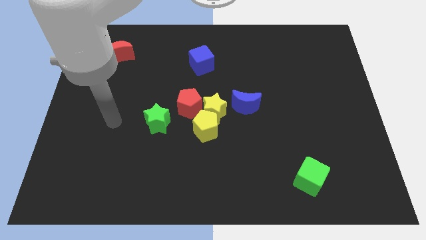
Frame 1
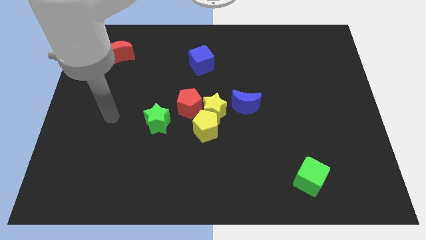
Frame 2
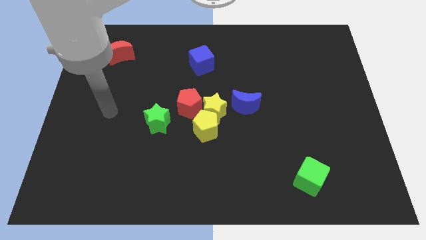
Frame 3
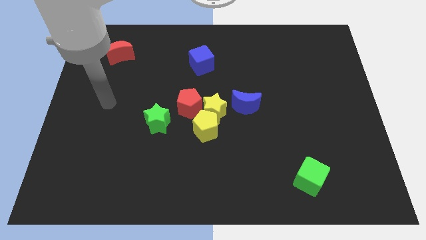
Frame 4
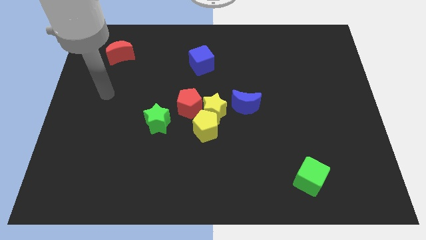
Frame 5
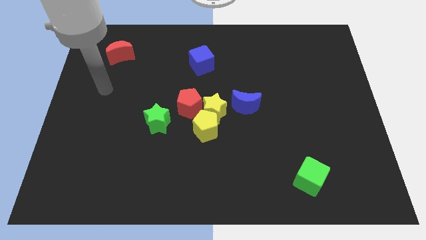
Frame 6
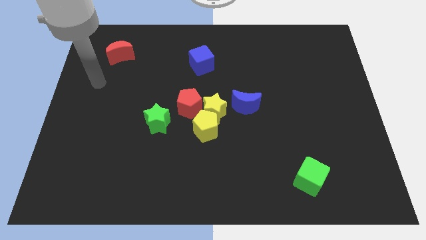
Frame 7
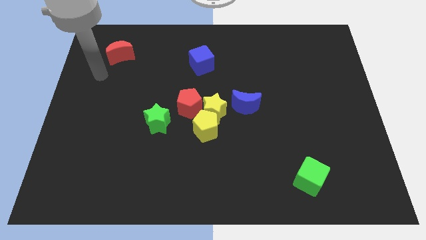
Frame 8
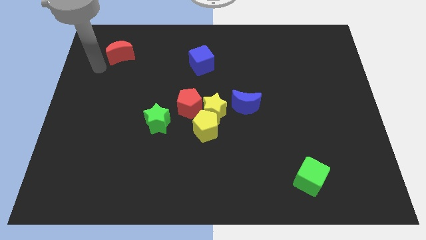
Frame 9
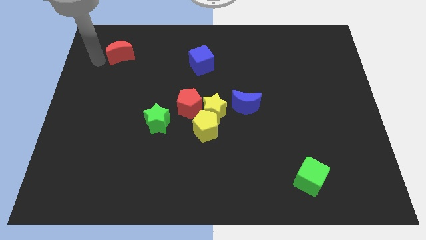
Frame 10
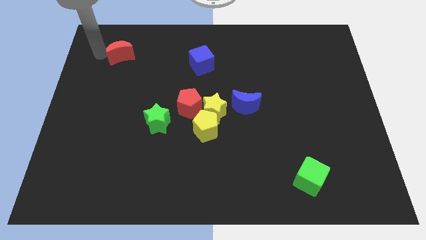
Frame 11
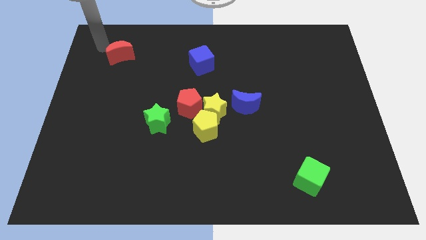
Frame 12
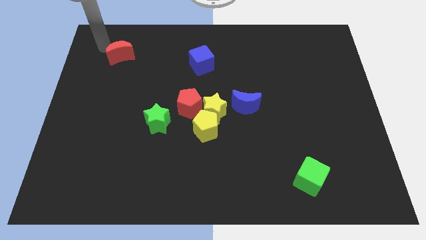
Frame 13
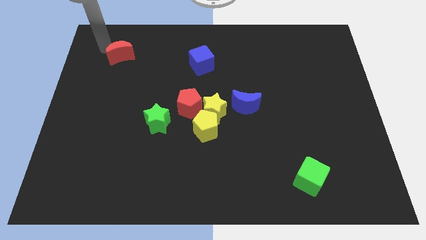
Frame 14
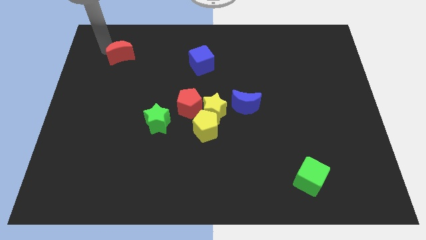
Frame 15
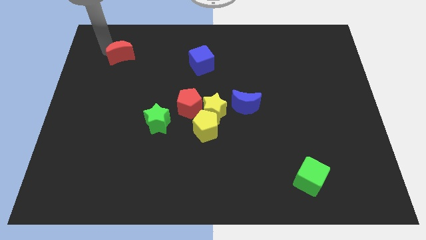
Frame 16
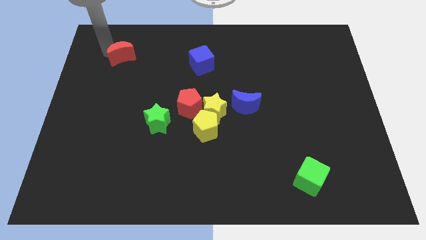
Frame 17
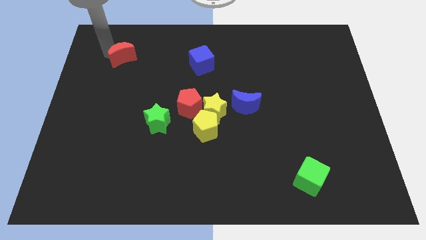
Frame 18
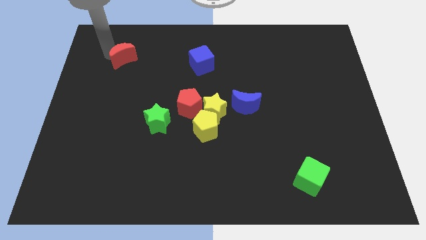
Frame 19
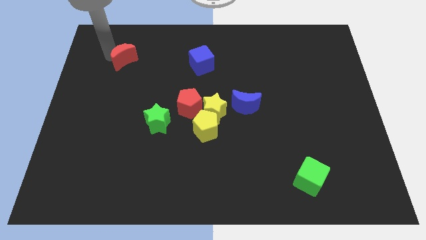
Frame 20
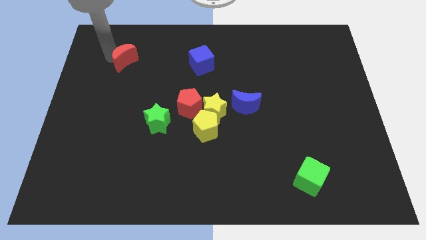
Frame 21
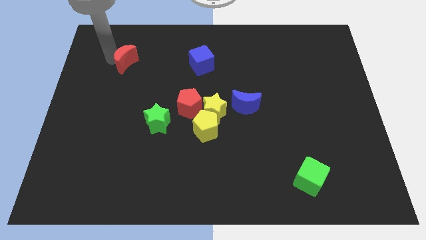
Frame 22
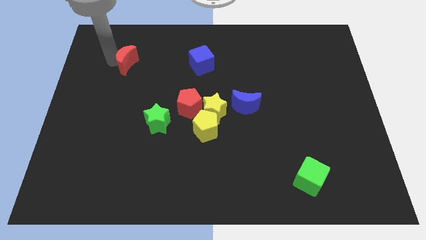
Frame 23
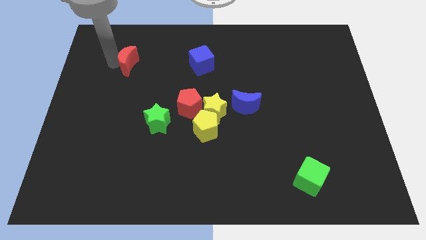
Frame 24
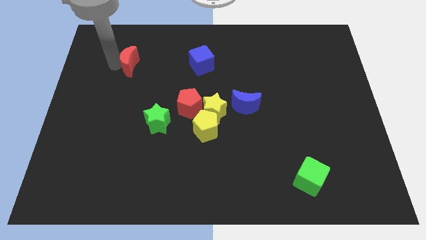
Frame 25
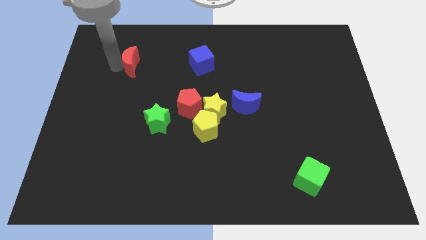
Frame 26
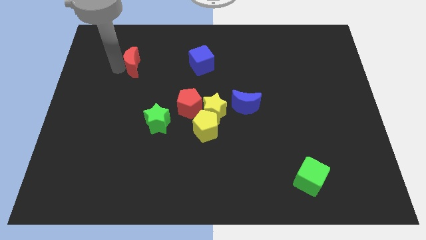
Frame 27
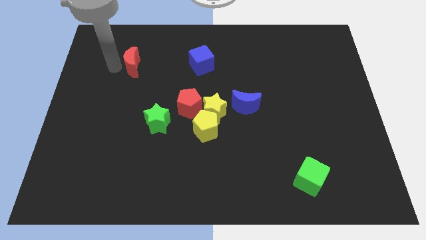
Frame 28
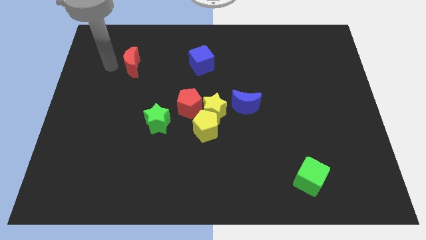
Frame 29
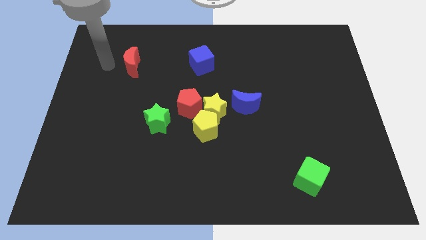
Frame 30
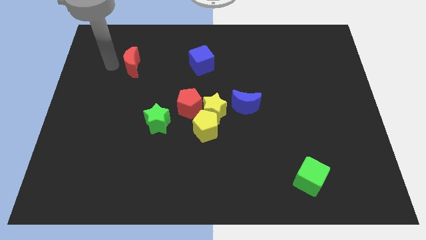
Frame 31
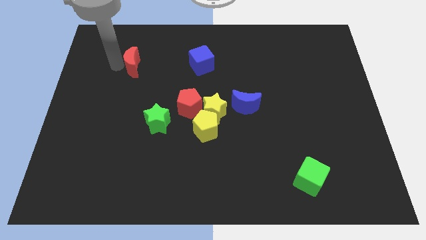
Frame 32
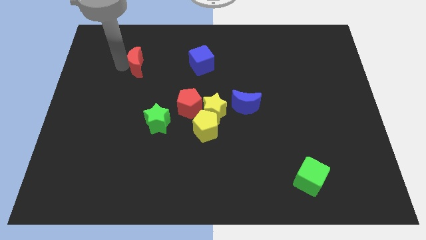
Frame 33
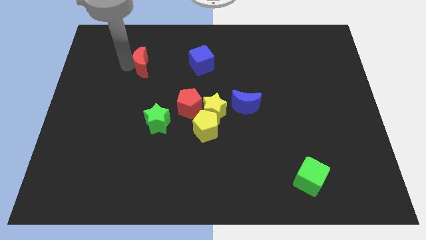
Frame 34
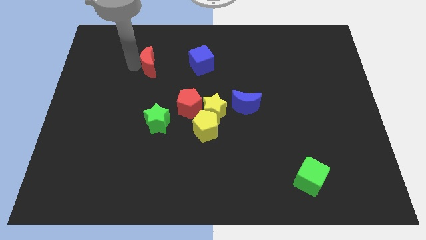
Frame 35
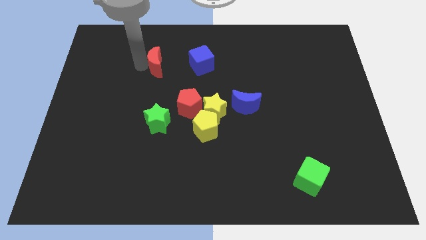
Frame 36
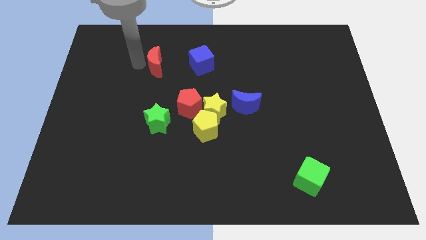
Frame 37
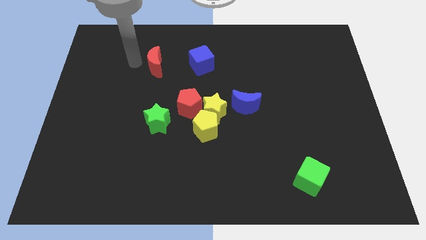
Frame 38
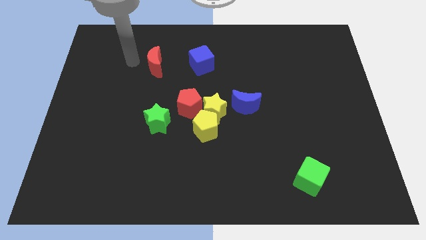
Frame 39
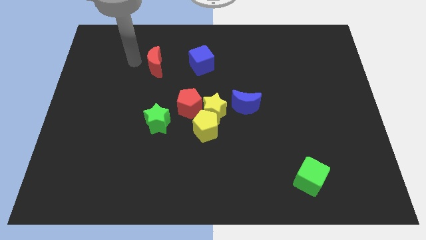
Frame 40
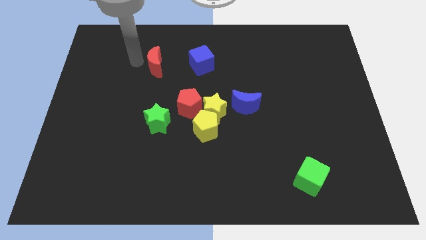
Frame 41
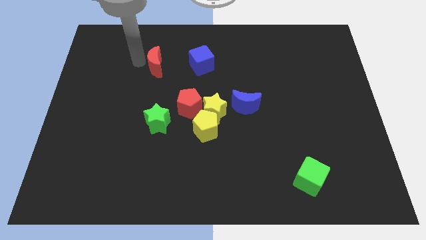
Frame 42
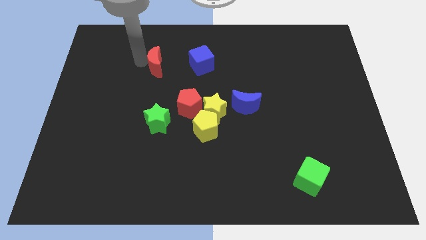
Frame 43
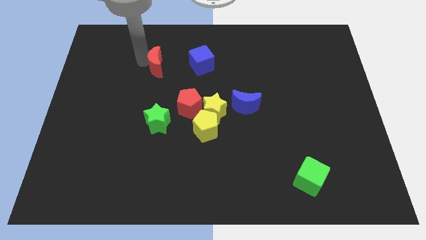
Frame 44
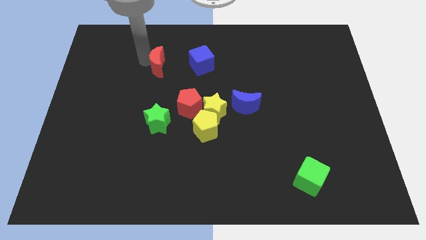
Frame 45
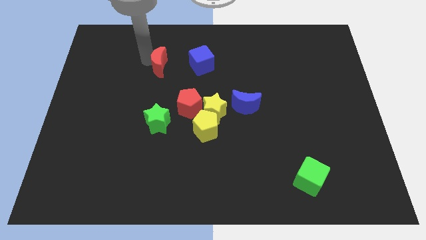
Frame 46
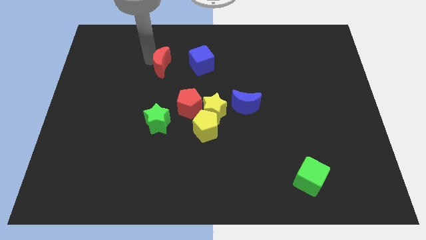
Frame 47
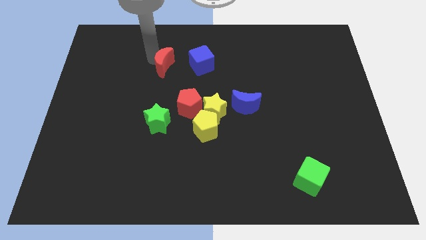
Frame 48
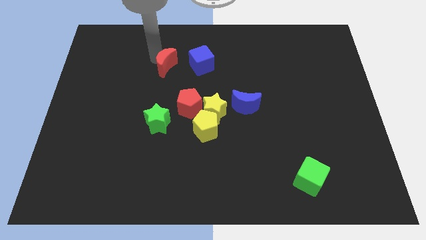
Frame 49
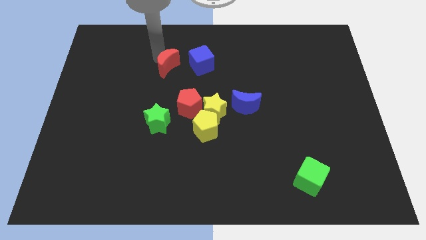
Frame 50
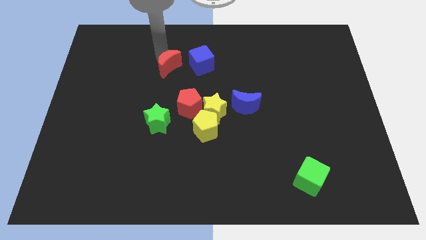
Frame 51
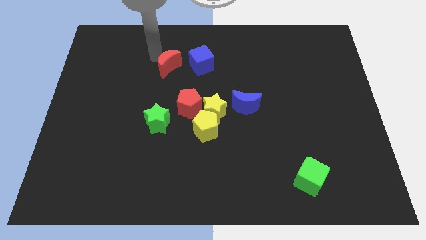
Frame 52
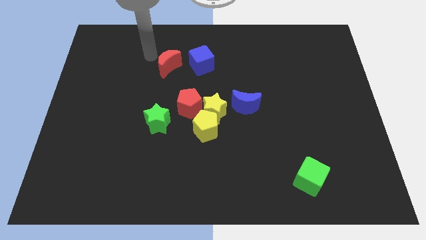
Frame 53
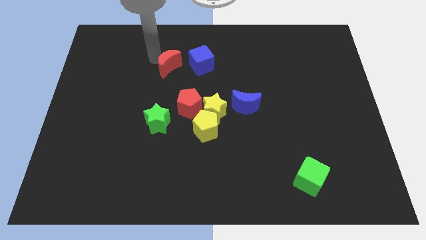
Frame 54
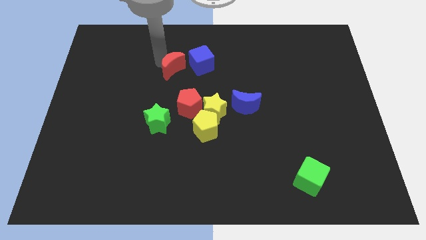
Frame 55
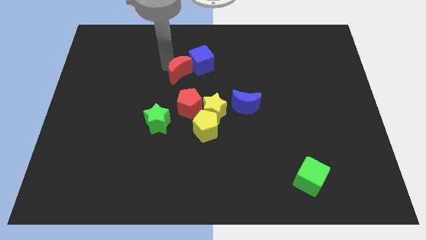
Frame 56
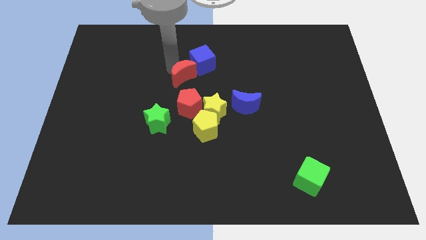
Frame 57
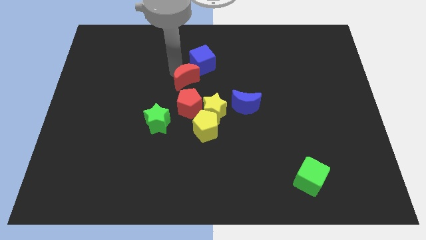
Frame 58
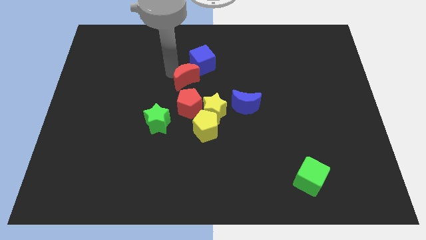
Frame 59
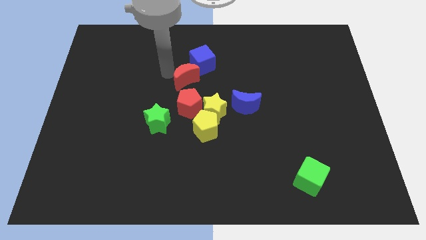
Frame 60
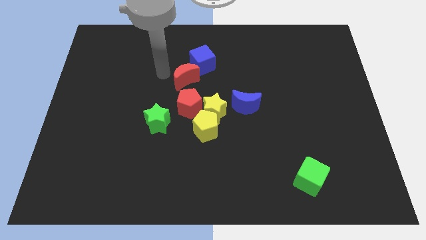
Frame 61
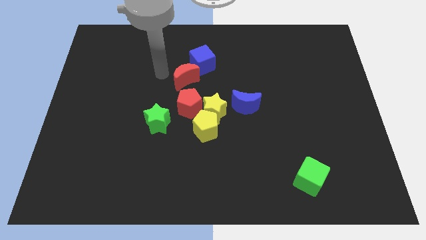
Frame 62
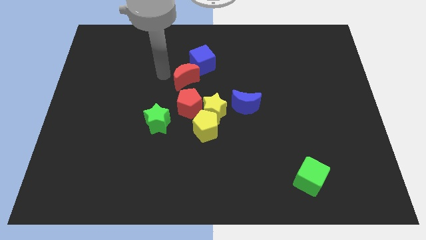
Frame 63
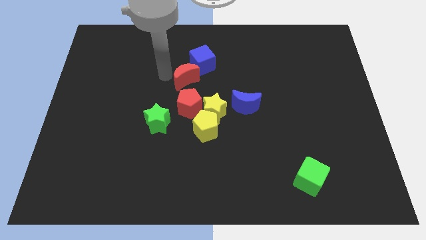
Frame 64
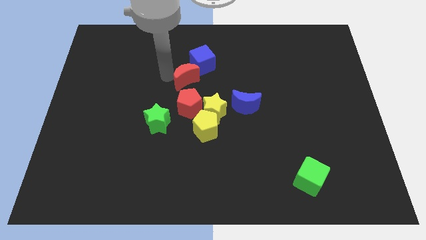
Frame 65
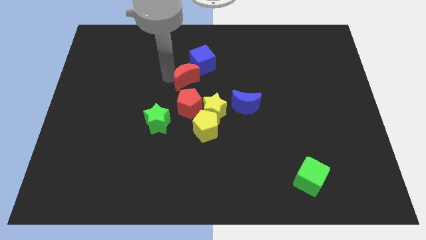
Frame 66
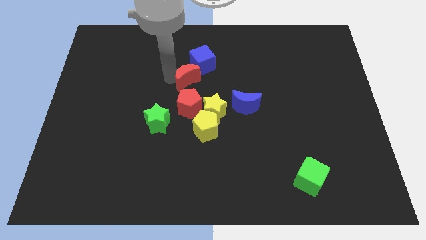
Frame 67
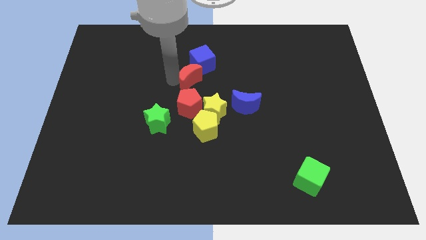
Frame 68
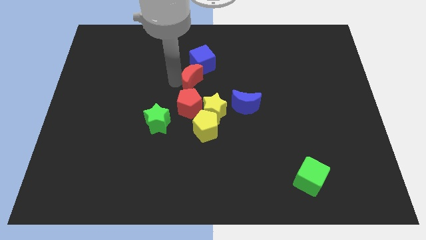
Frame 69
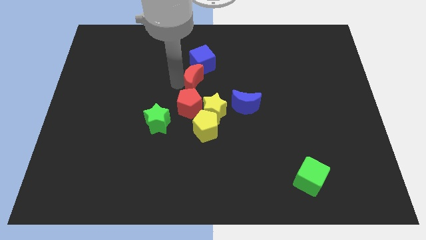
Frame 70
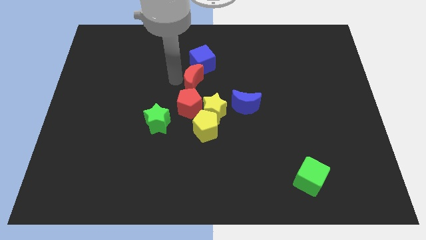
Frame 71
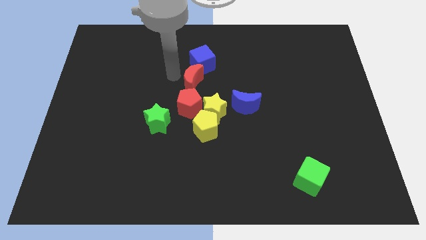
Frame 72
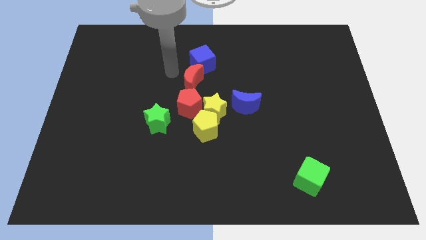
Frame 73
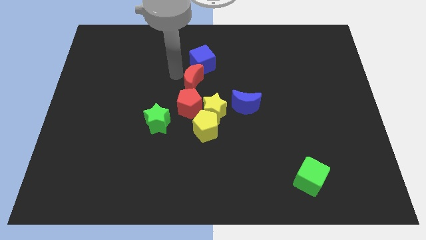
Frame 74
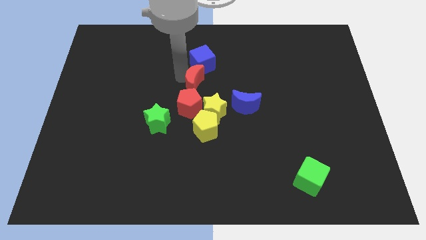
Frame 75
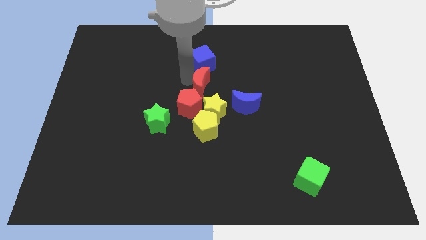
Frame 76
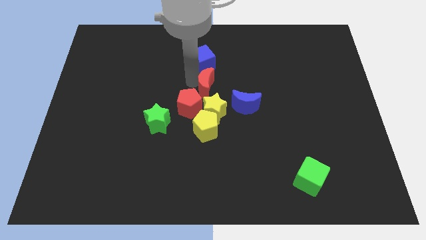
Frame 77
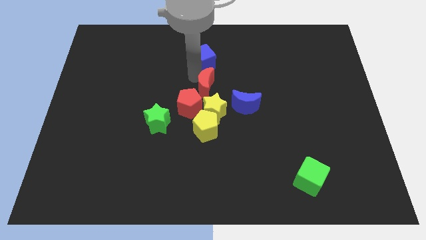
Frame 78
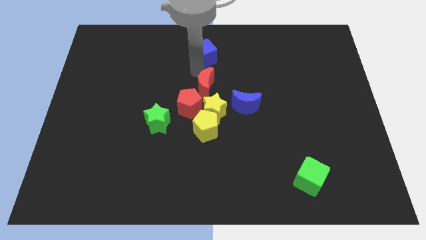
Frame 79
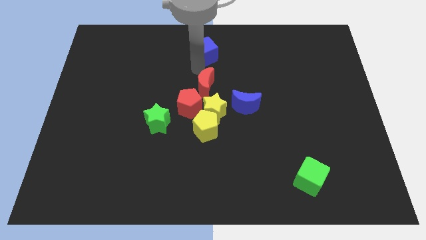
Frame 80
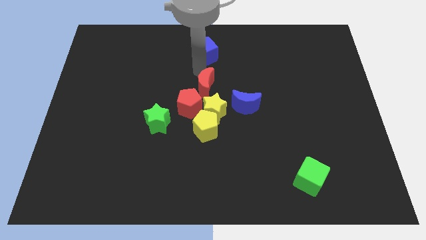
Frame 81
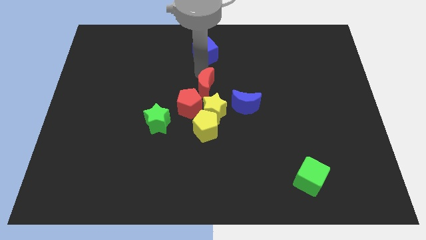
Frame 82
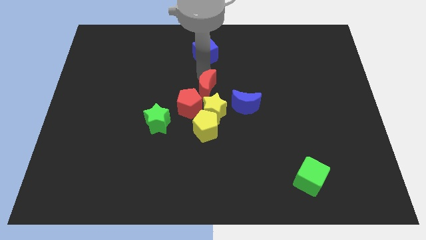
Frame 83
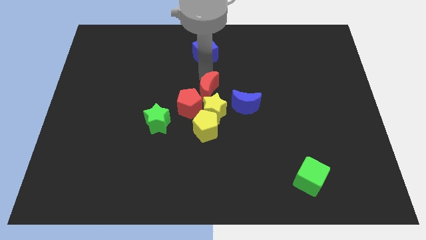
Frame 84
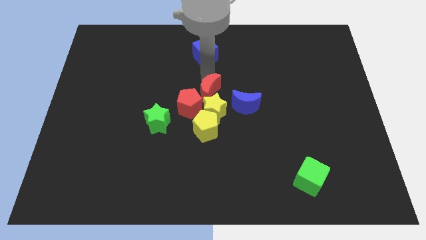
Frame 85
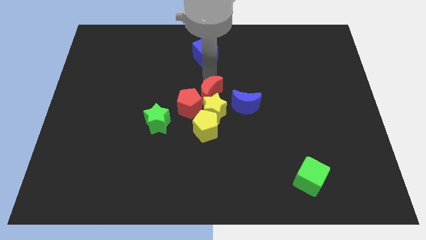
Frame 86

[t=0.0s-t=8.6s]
slide the red moon to the yellow star
